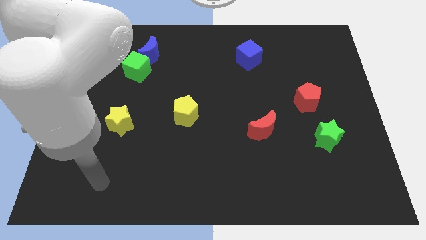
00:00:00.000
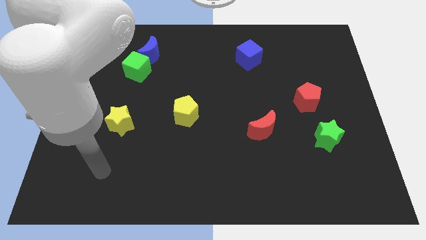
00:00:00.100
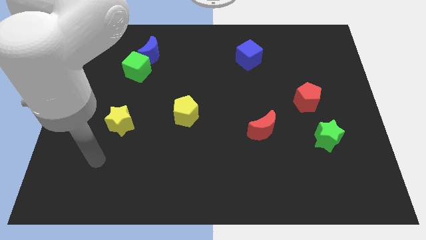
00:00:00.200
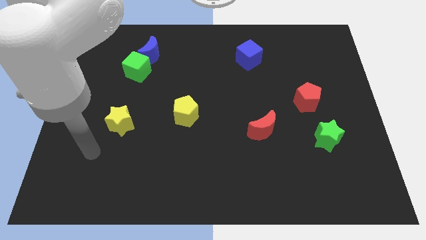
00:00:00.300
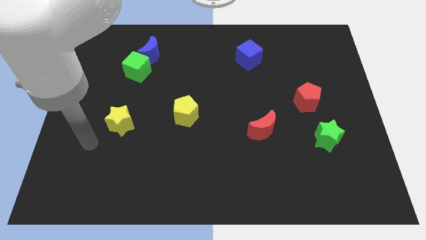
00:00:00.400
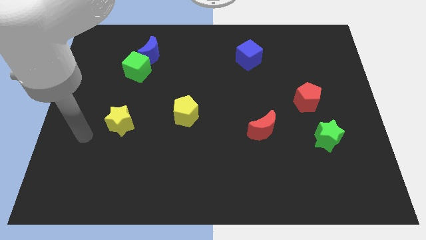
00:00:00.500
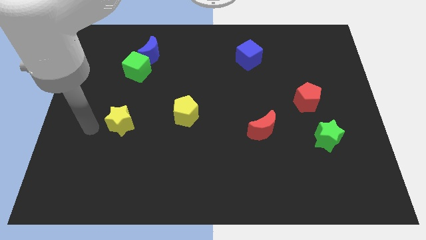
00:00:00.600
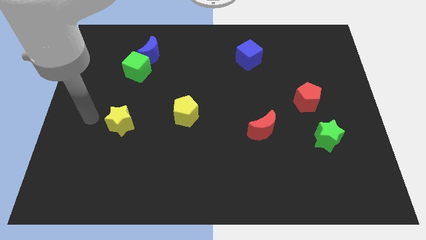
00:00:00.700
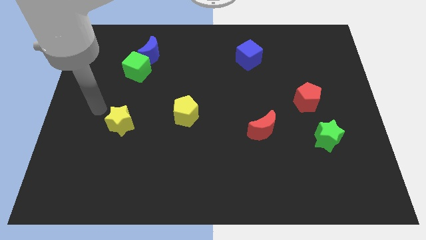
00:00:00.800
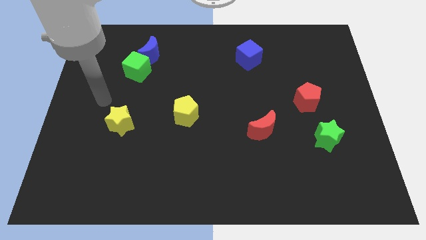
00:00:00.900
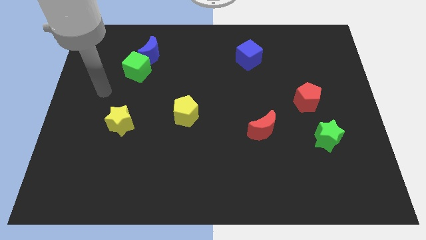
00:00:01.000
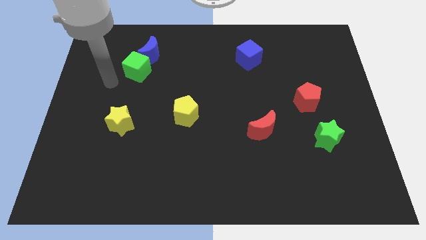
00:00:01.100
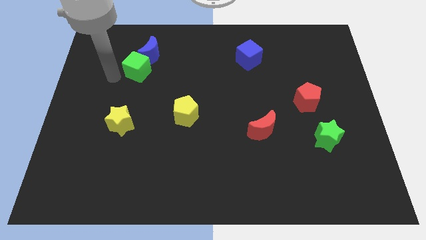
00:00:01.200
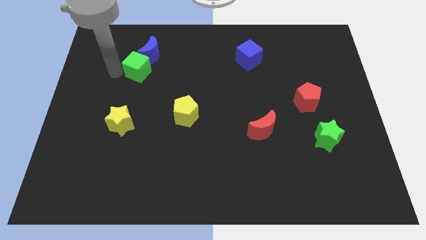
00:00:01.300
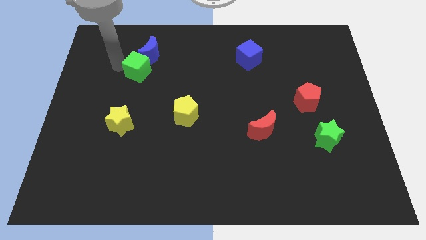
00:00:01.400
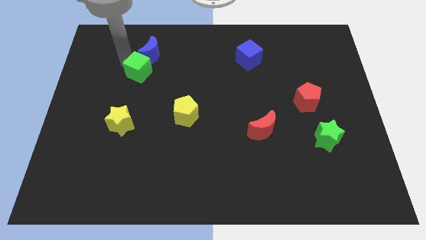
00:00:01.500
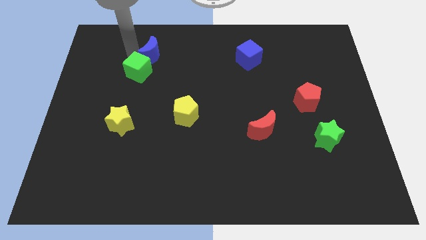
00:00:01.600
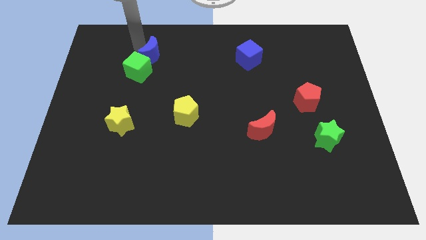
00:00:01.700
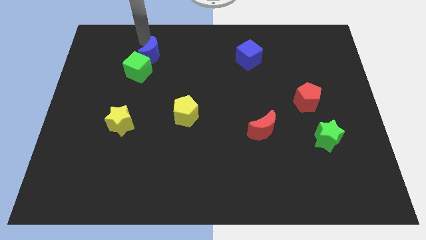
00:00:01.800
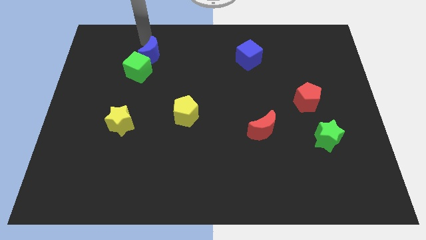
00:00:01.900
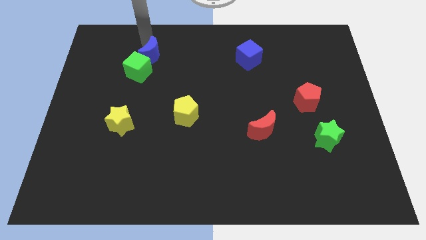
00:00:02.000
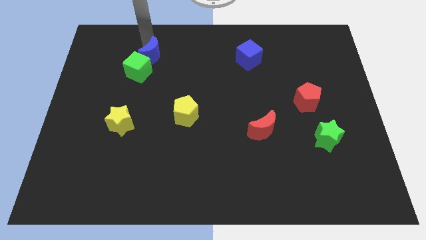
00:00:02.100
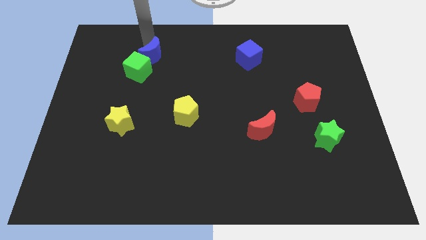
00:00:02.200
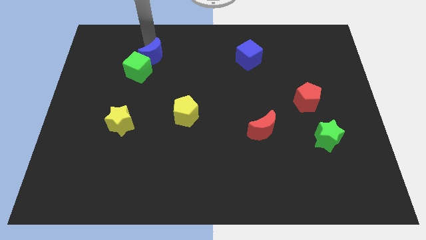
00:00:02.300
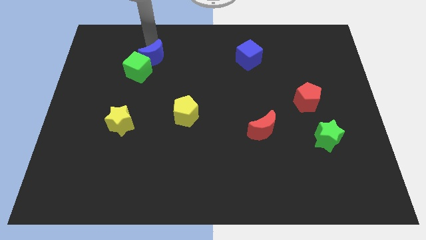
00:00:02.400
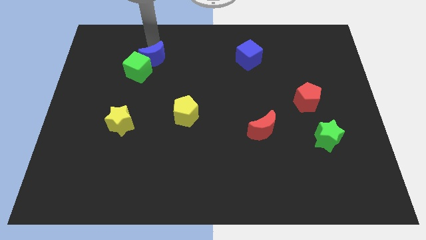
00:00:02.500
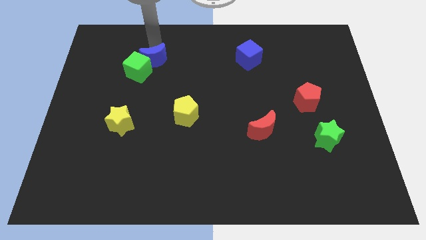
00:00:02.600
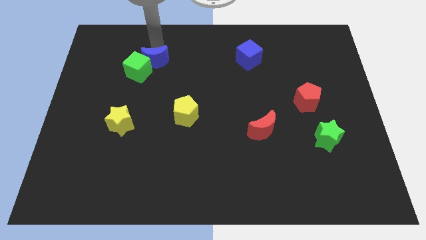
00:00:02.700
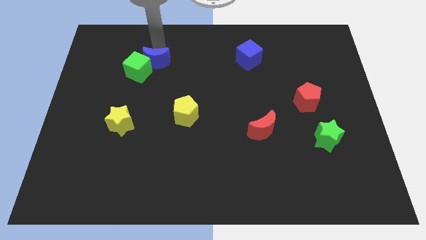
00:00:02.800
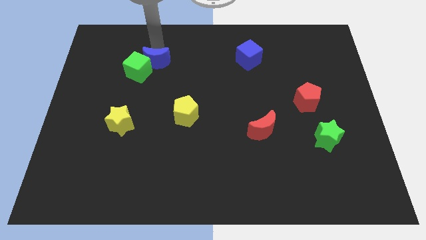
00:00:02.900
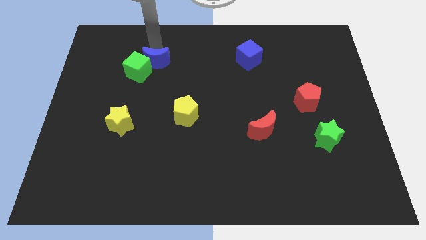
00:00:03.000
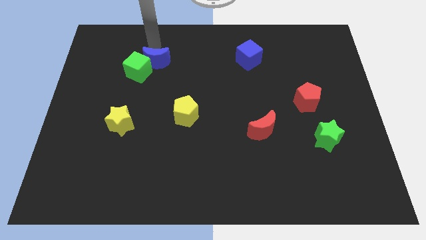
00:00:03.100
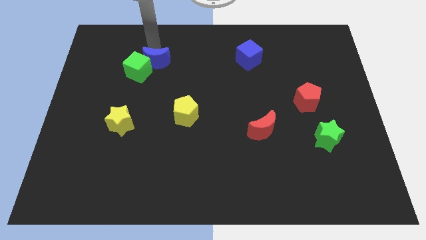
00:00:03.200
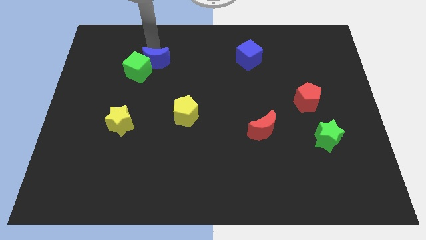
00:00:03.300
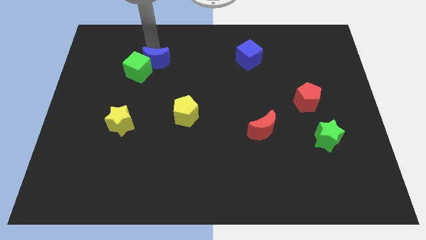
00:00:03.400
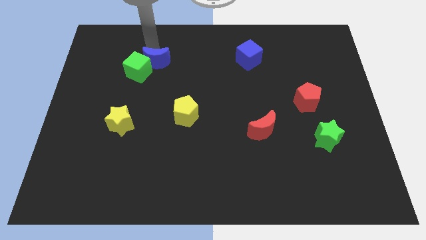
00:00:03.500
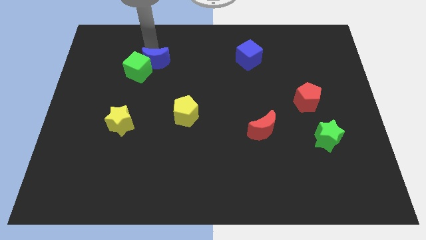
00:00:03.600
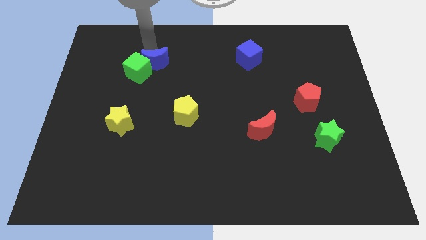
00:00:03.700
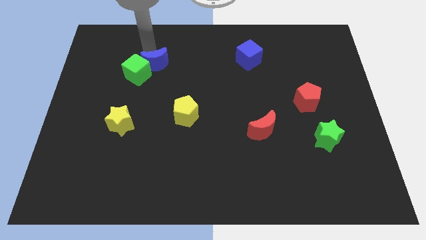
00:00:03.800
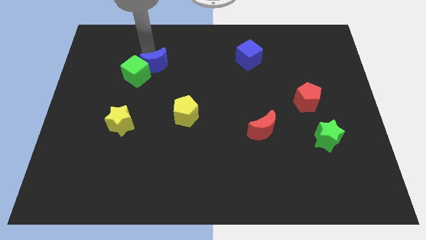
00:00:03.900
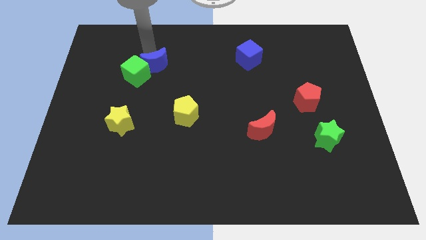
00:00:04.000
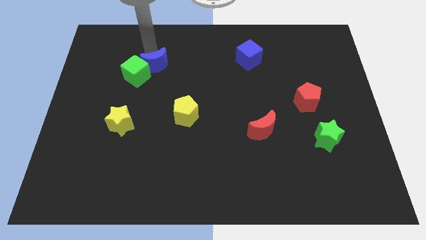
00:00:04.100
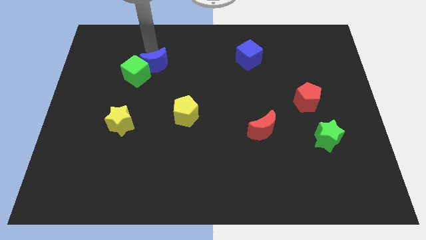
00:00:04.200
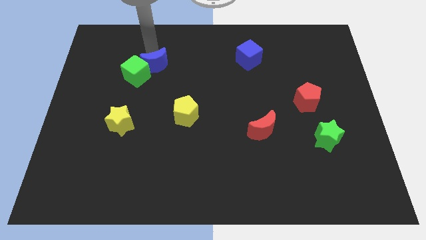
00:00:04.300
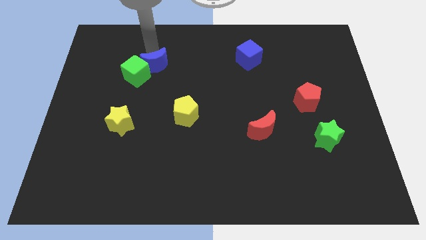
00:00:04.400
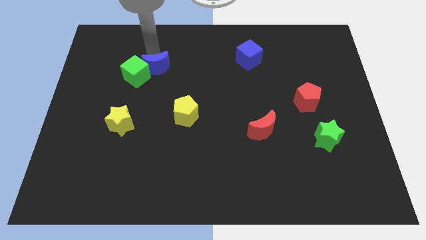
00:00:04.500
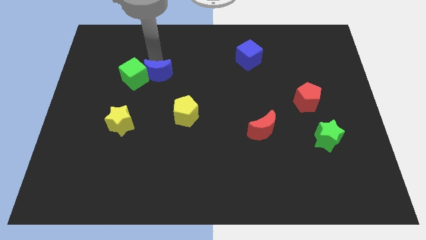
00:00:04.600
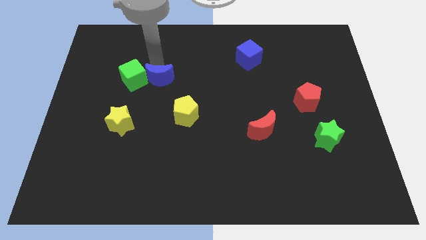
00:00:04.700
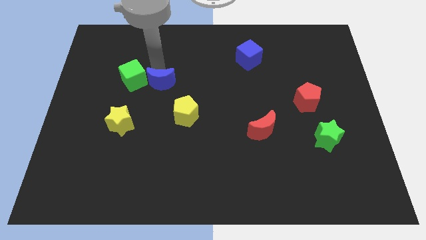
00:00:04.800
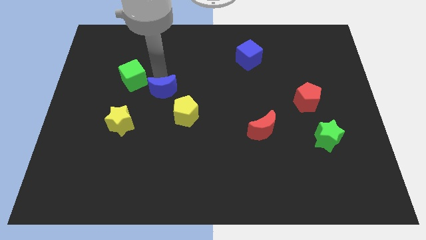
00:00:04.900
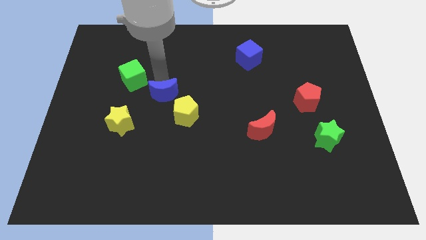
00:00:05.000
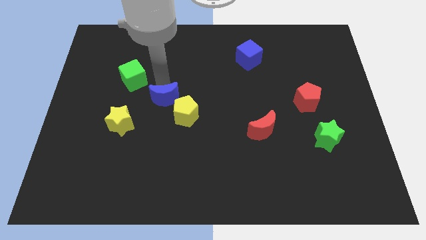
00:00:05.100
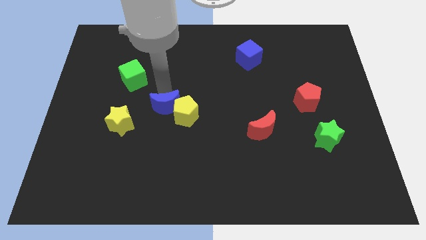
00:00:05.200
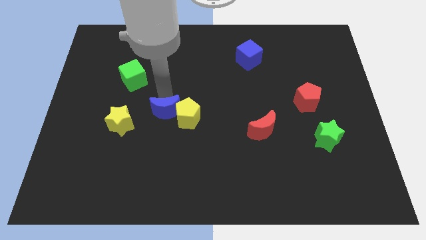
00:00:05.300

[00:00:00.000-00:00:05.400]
push the blue moon to the right of the yellow star

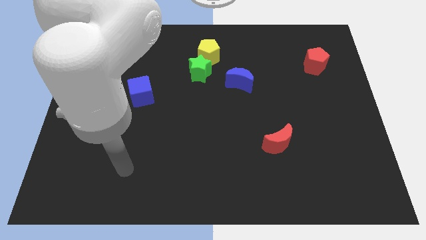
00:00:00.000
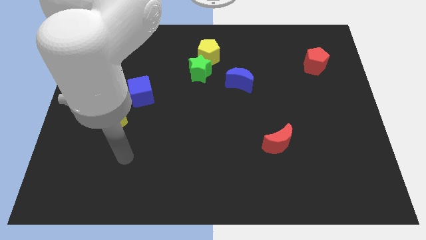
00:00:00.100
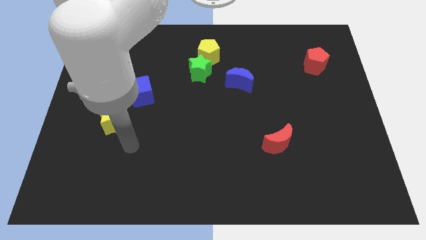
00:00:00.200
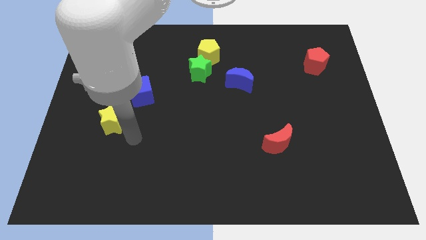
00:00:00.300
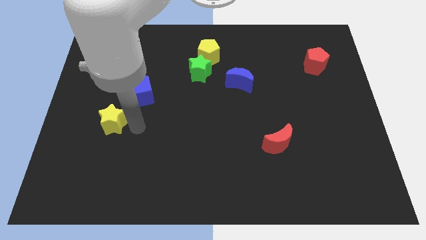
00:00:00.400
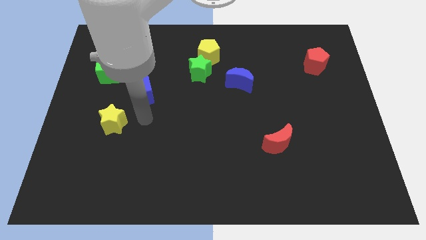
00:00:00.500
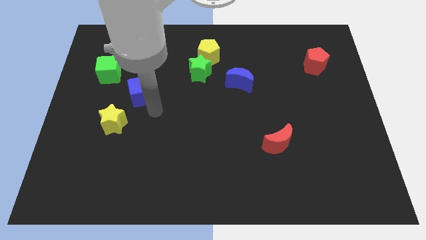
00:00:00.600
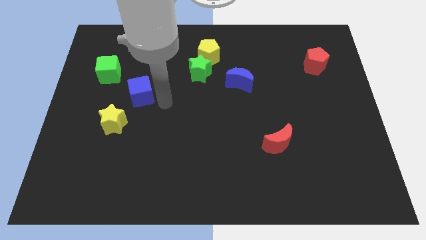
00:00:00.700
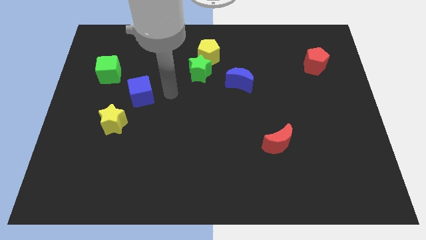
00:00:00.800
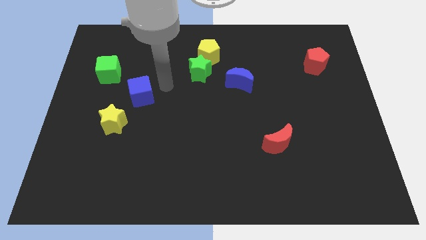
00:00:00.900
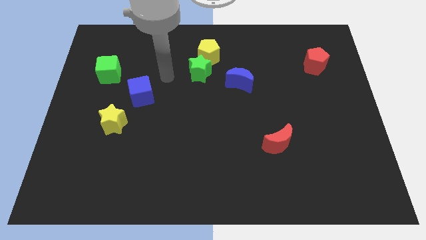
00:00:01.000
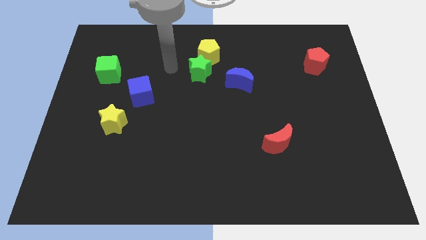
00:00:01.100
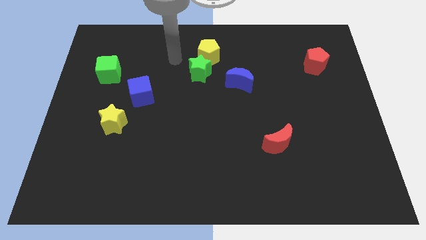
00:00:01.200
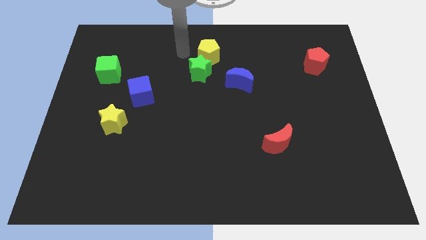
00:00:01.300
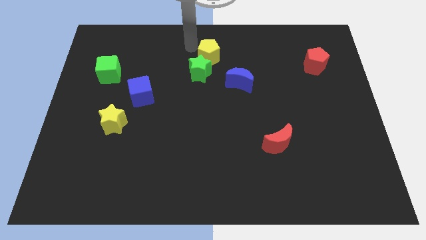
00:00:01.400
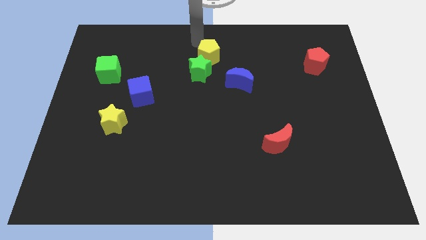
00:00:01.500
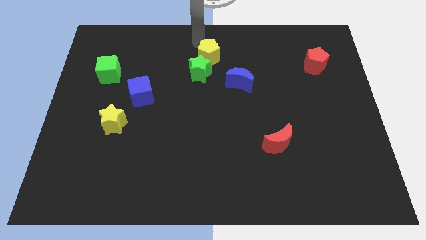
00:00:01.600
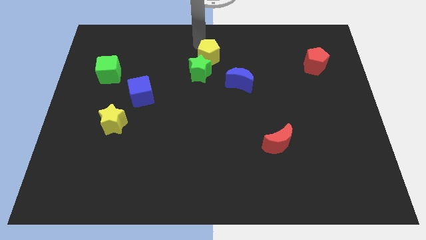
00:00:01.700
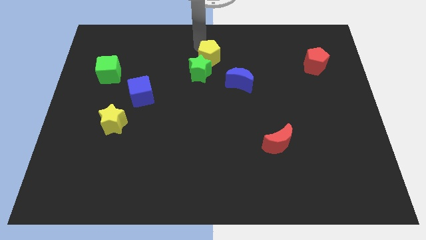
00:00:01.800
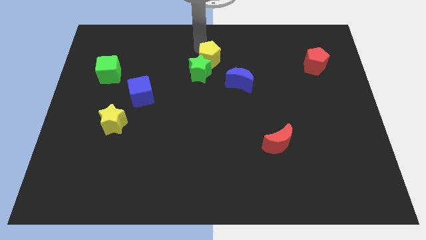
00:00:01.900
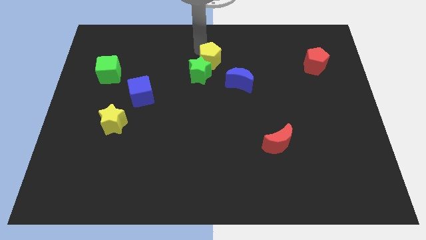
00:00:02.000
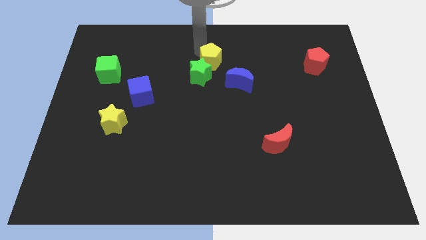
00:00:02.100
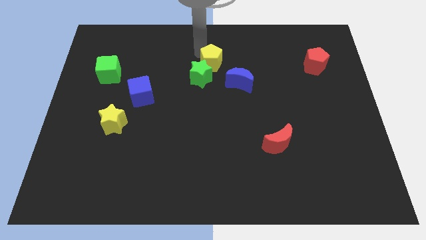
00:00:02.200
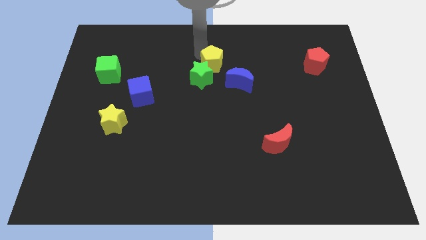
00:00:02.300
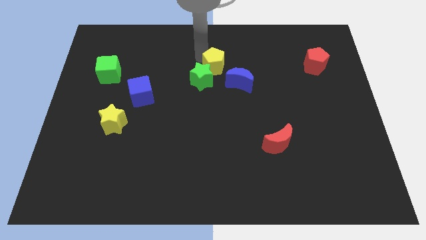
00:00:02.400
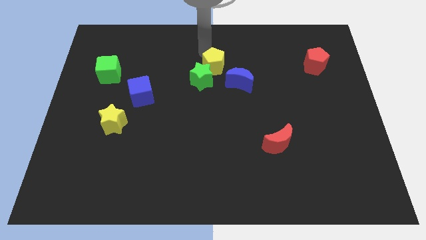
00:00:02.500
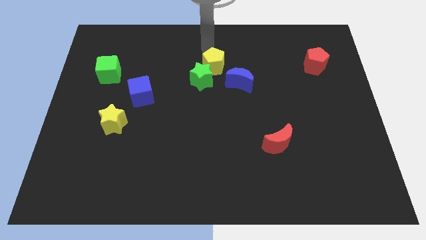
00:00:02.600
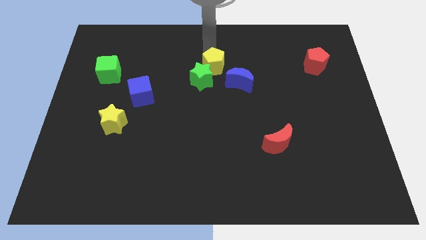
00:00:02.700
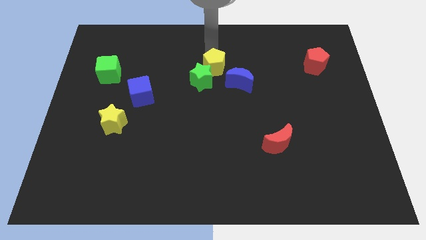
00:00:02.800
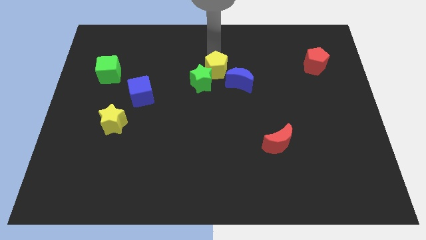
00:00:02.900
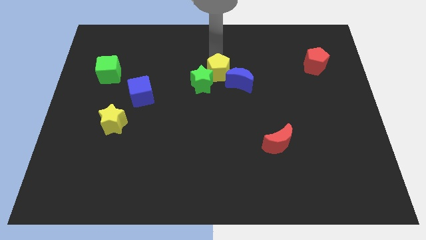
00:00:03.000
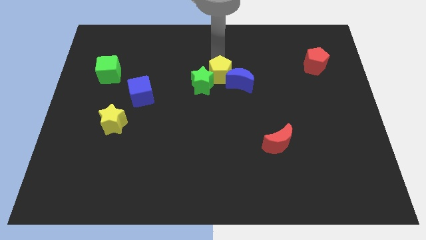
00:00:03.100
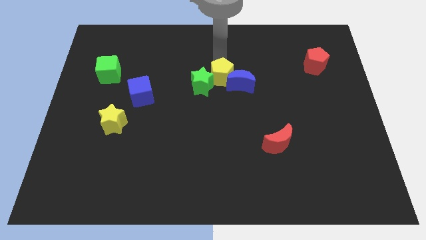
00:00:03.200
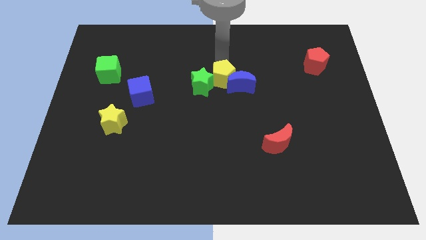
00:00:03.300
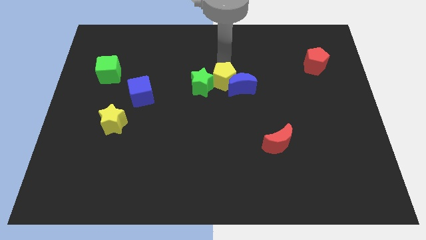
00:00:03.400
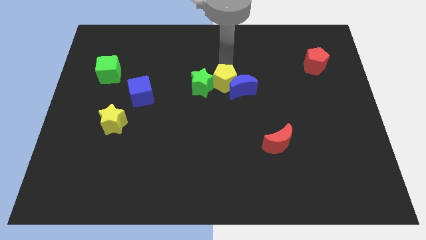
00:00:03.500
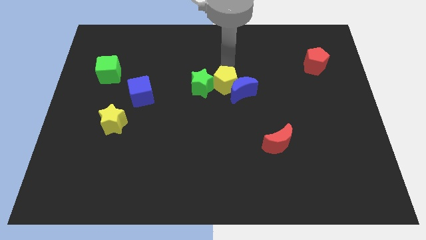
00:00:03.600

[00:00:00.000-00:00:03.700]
push the yellow pentagon to the bottom right side of the green star
